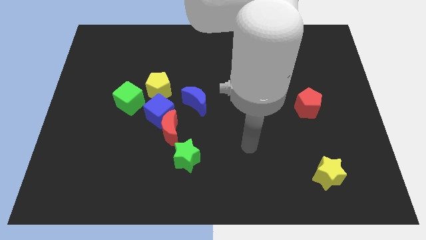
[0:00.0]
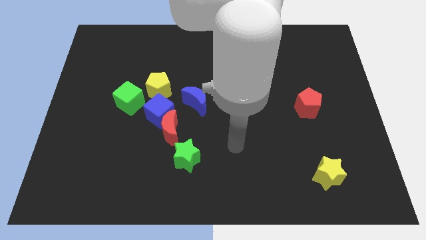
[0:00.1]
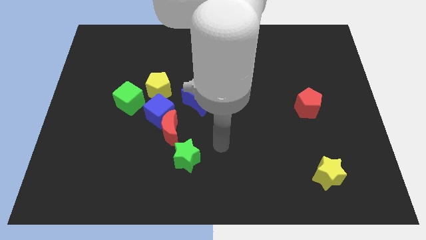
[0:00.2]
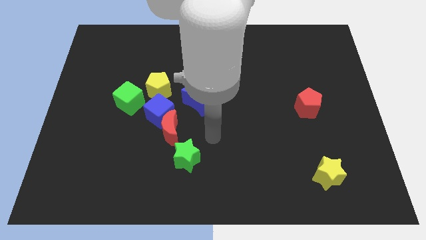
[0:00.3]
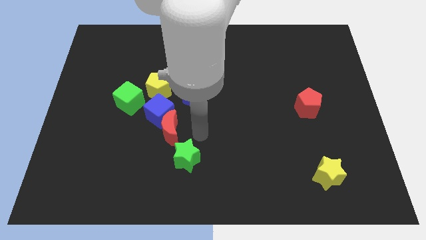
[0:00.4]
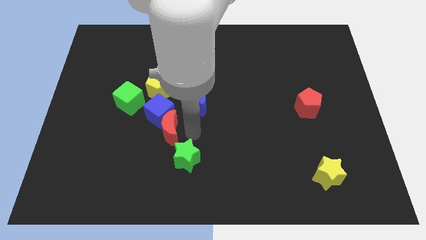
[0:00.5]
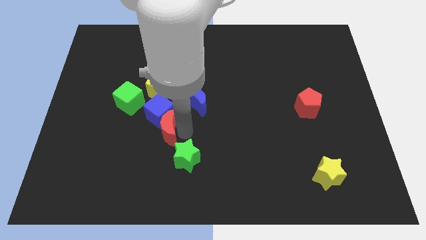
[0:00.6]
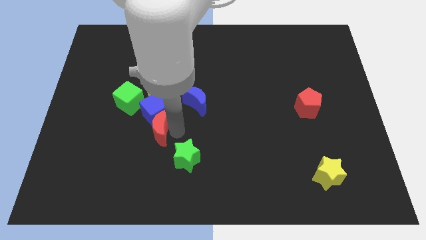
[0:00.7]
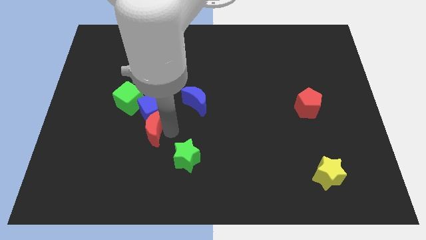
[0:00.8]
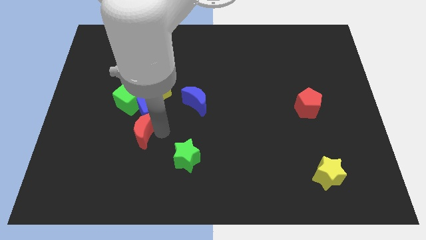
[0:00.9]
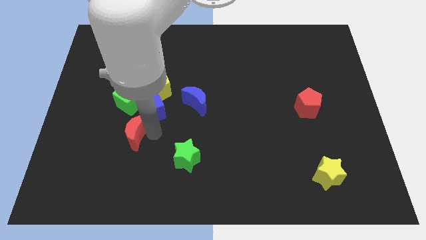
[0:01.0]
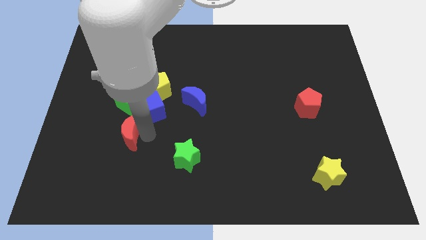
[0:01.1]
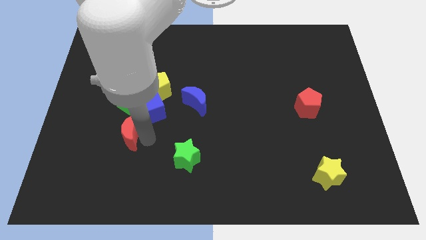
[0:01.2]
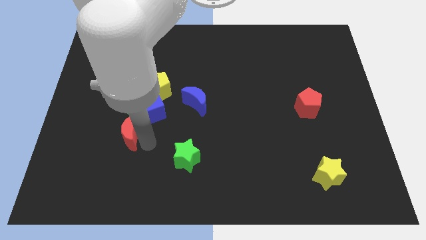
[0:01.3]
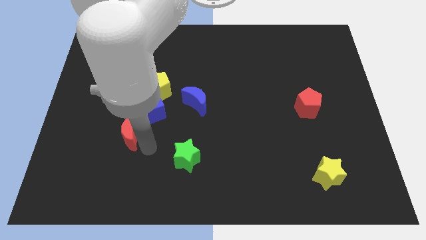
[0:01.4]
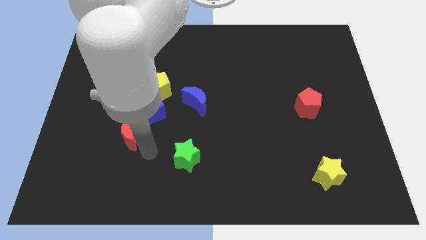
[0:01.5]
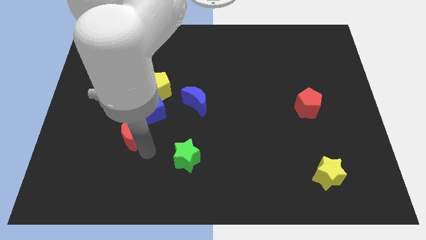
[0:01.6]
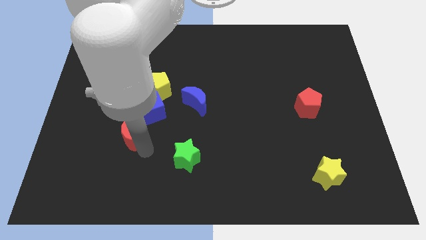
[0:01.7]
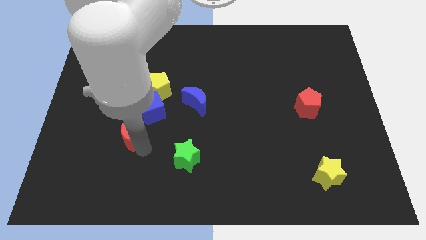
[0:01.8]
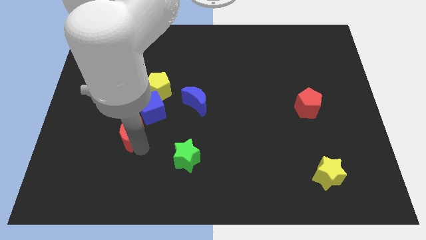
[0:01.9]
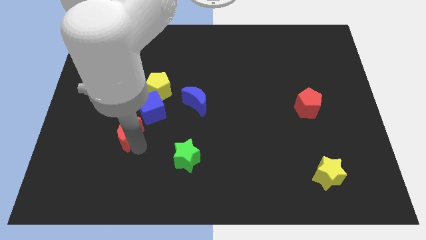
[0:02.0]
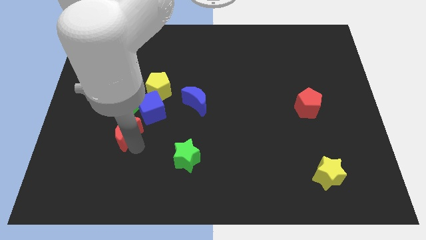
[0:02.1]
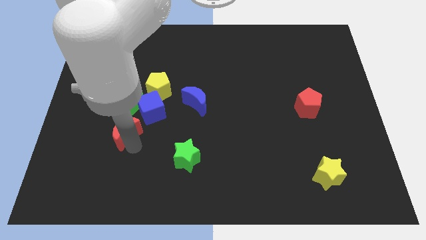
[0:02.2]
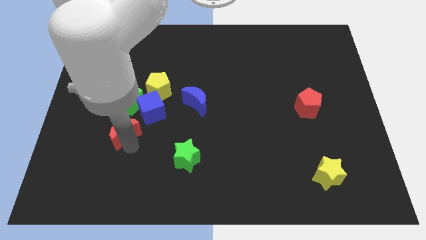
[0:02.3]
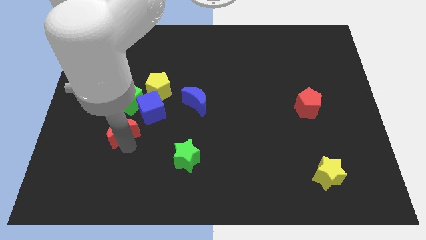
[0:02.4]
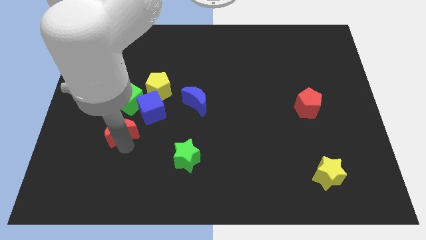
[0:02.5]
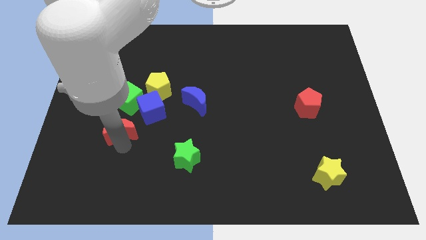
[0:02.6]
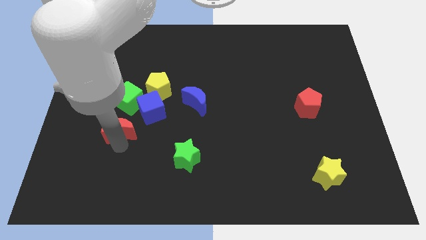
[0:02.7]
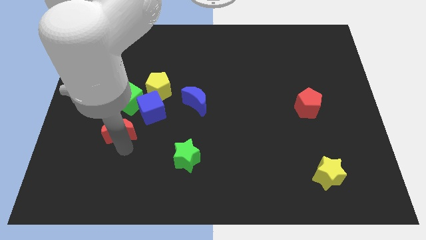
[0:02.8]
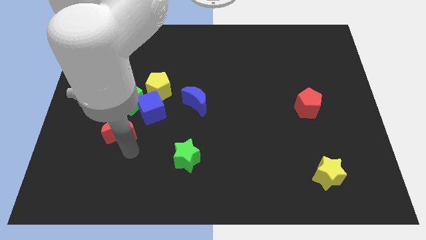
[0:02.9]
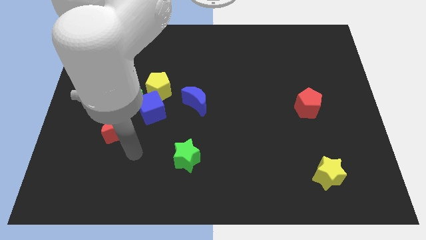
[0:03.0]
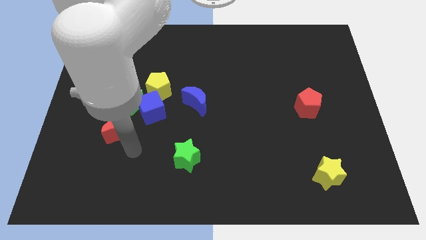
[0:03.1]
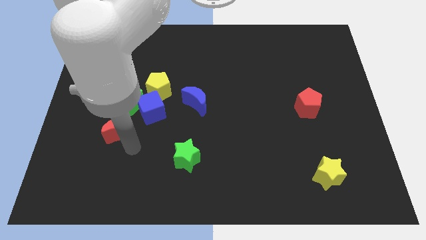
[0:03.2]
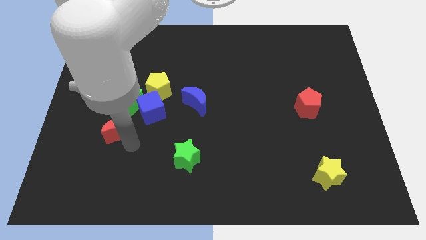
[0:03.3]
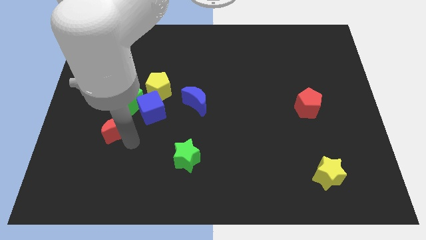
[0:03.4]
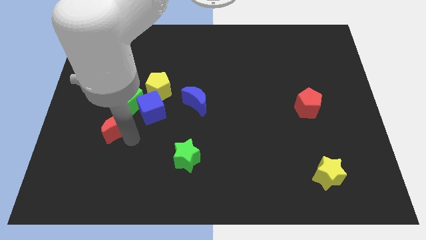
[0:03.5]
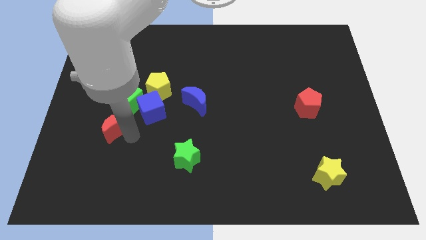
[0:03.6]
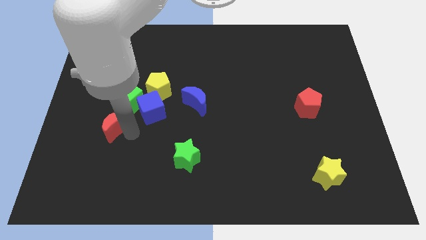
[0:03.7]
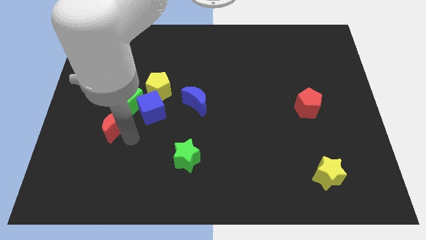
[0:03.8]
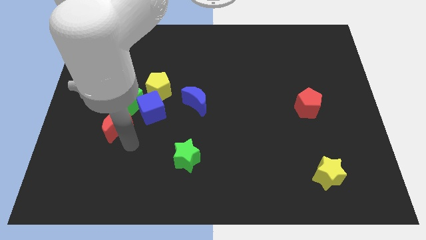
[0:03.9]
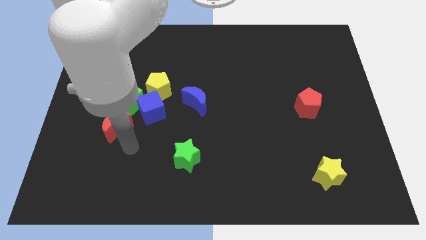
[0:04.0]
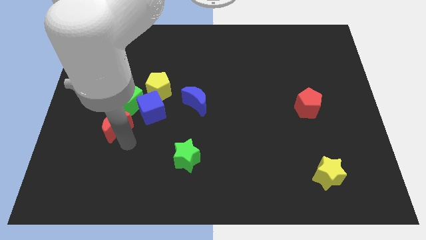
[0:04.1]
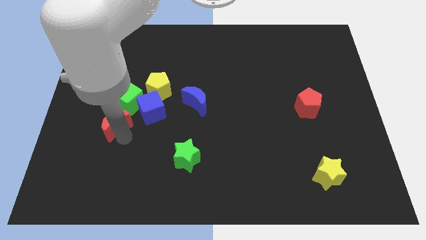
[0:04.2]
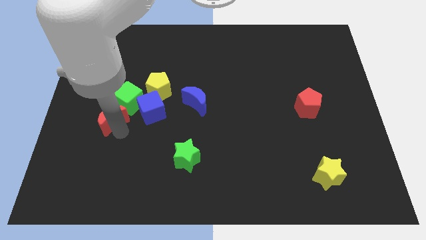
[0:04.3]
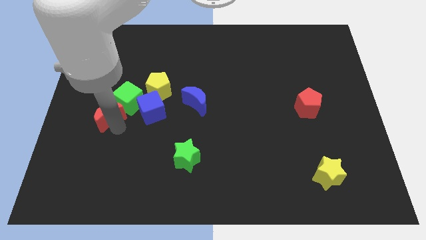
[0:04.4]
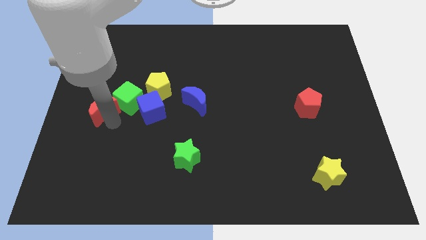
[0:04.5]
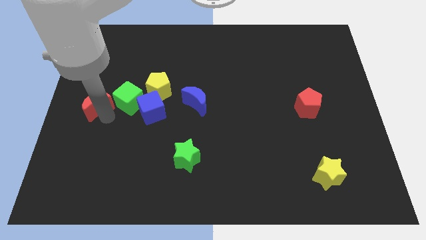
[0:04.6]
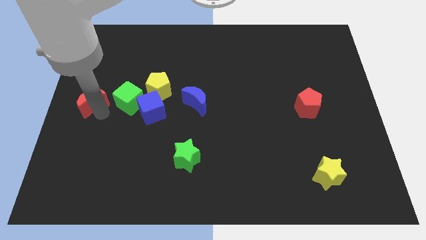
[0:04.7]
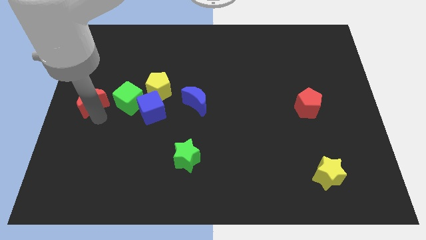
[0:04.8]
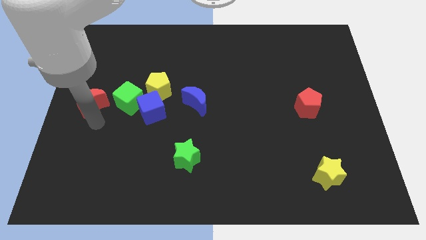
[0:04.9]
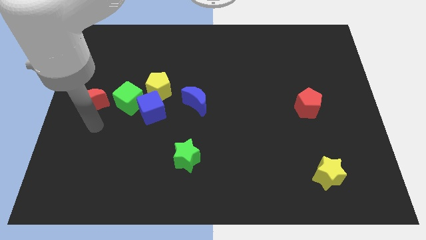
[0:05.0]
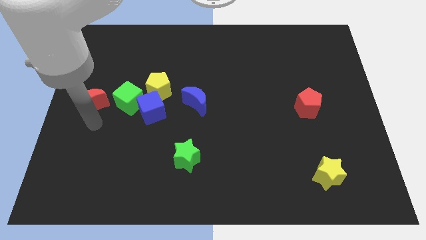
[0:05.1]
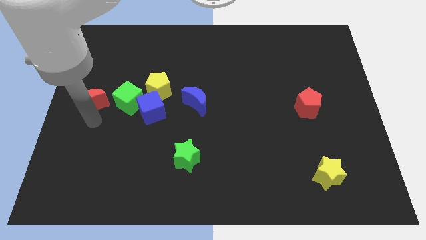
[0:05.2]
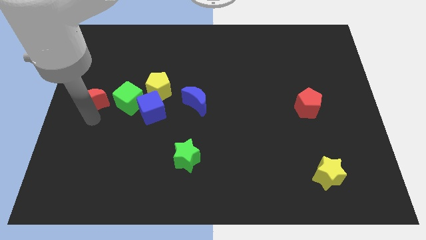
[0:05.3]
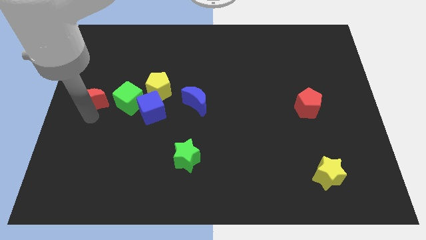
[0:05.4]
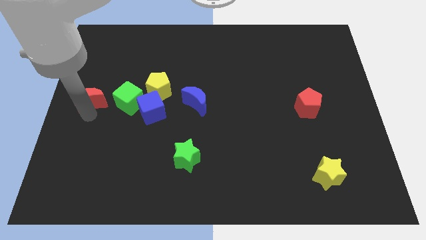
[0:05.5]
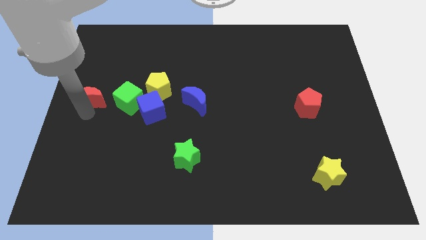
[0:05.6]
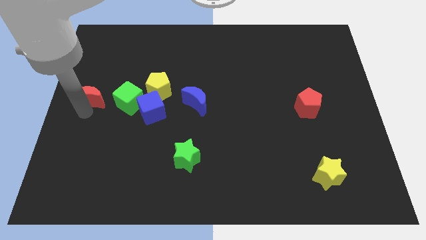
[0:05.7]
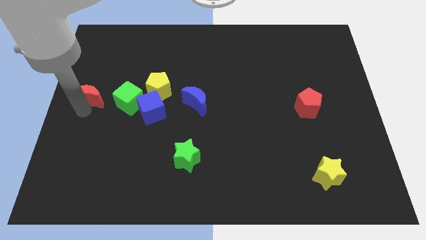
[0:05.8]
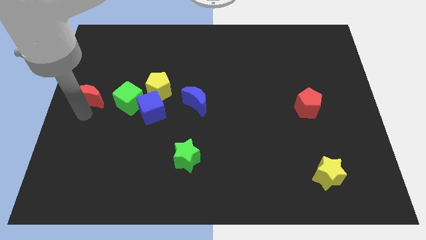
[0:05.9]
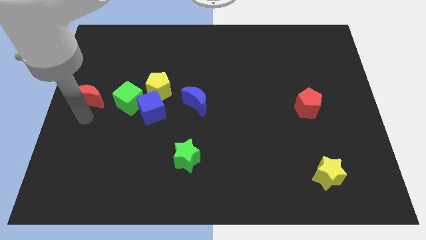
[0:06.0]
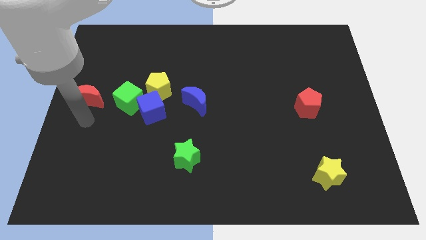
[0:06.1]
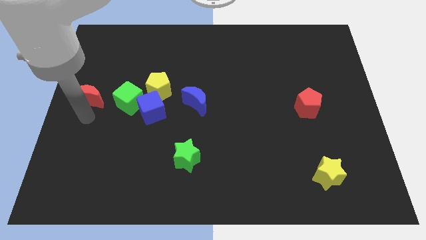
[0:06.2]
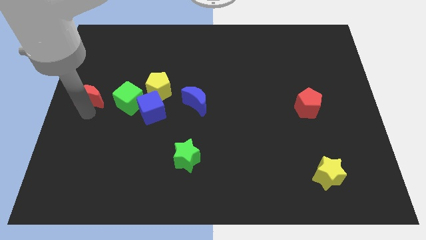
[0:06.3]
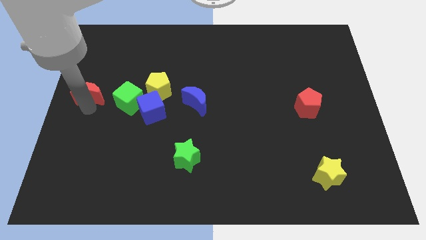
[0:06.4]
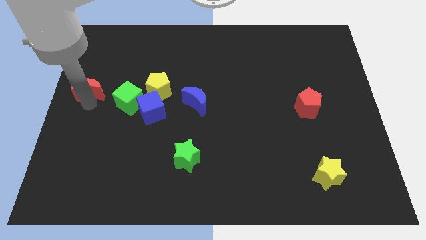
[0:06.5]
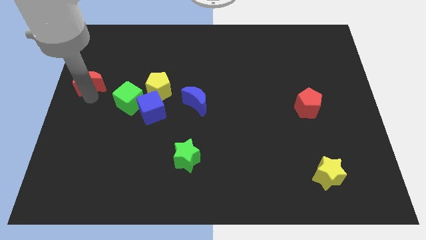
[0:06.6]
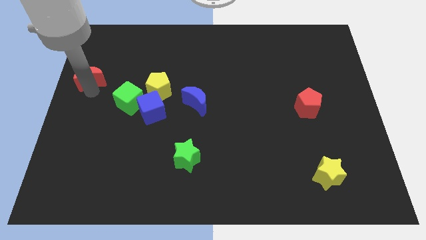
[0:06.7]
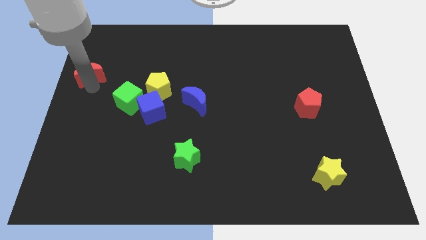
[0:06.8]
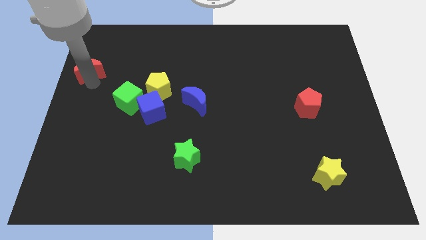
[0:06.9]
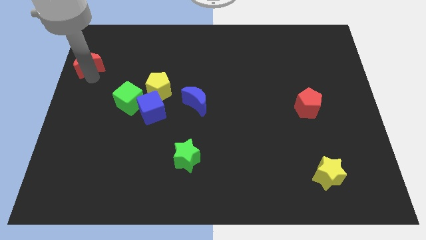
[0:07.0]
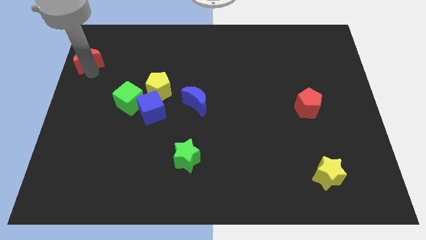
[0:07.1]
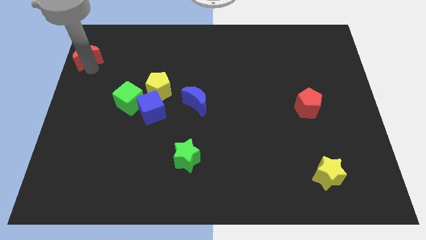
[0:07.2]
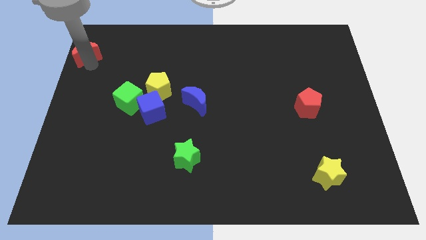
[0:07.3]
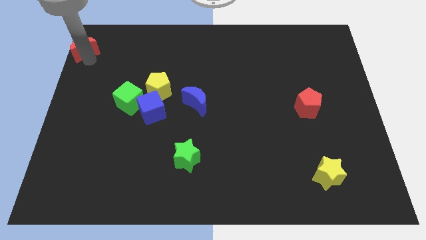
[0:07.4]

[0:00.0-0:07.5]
put the red moon to the top left
